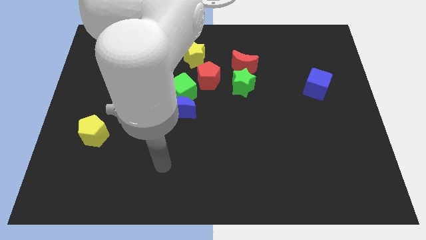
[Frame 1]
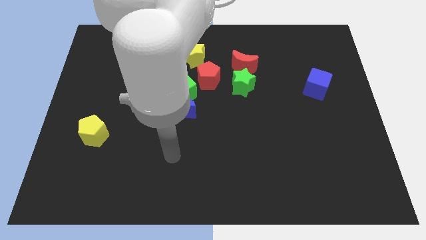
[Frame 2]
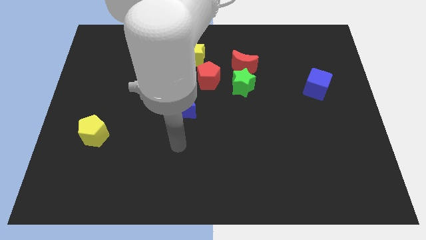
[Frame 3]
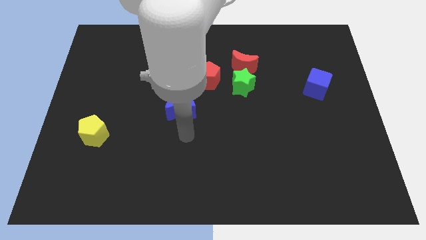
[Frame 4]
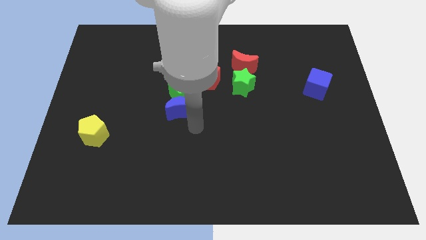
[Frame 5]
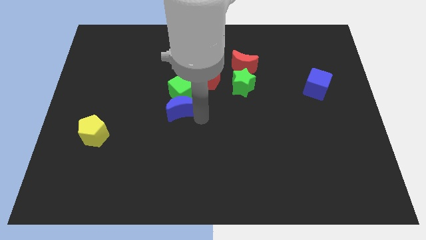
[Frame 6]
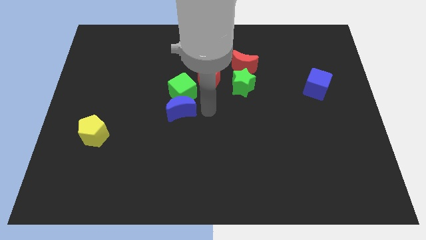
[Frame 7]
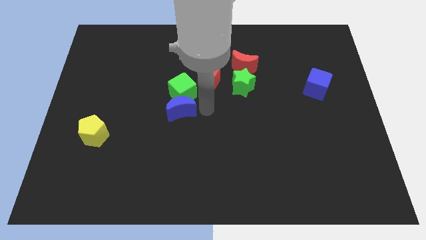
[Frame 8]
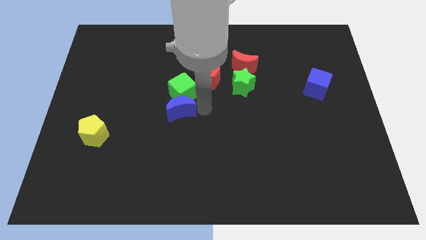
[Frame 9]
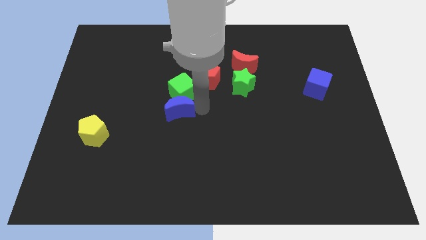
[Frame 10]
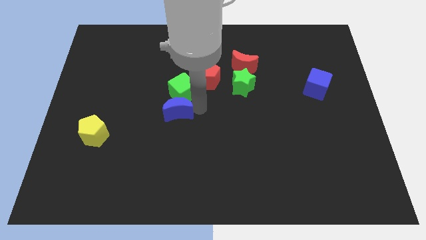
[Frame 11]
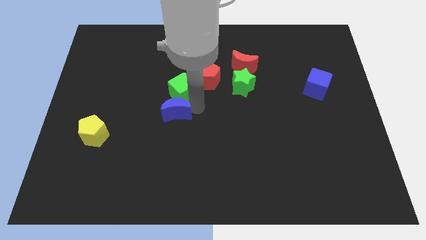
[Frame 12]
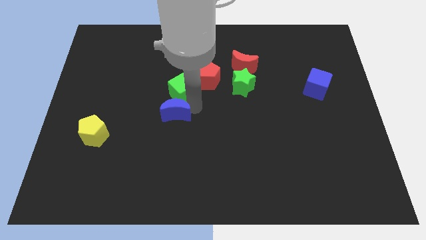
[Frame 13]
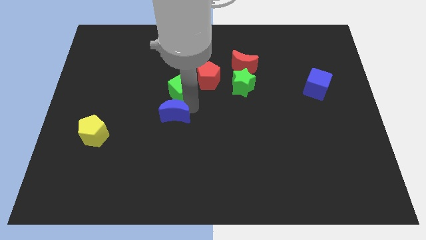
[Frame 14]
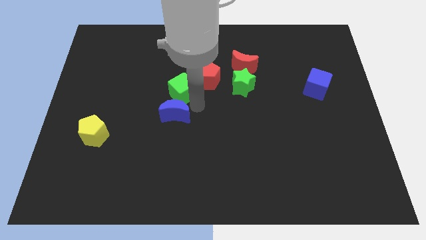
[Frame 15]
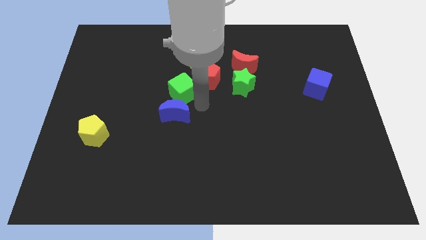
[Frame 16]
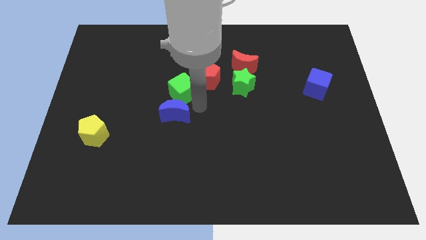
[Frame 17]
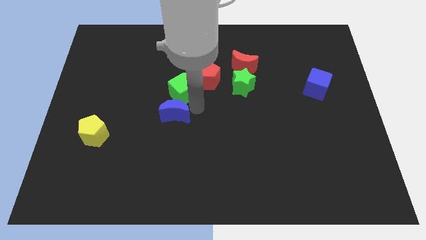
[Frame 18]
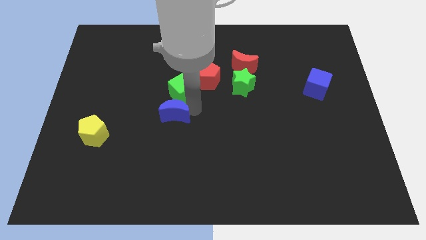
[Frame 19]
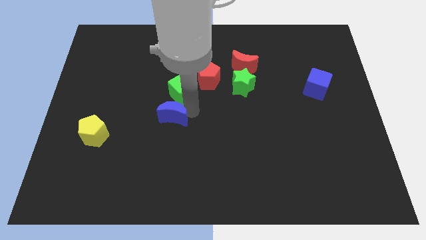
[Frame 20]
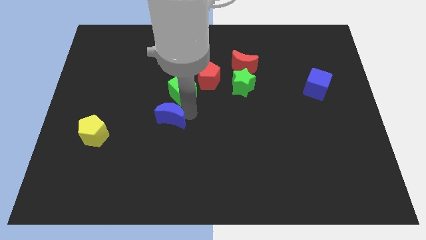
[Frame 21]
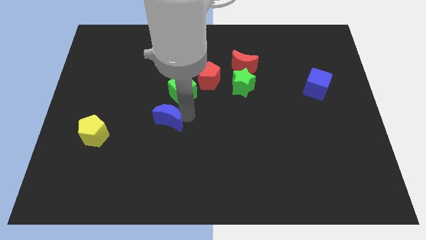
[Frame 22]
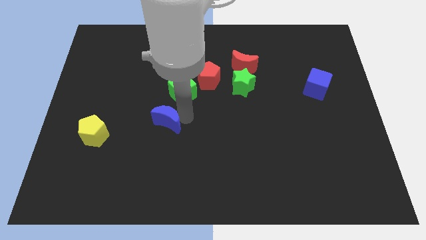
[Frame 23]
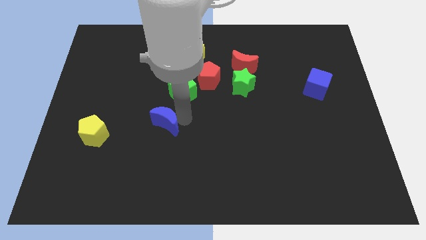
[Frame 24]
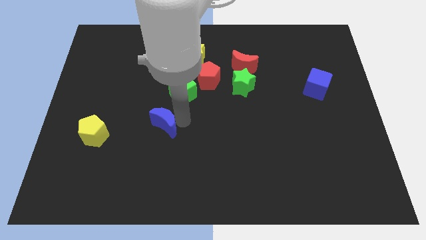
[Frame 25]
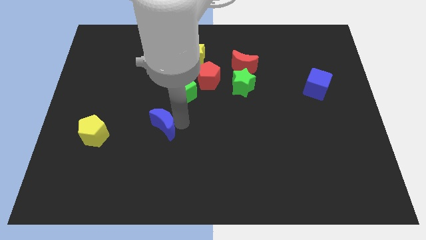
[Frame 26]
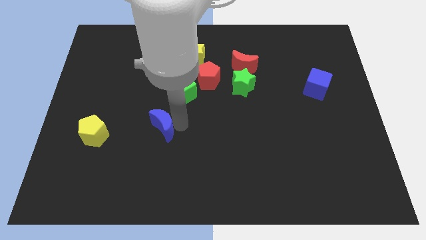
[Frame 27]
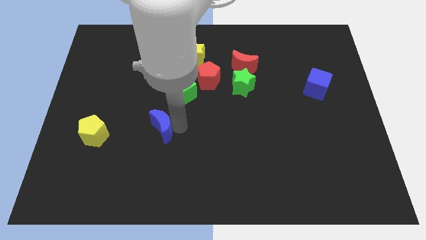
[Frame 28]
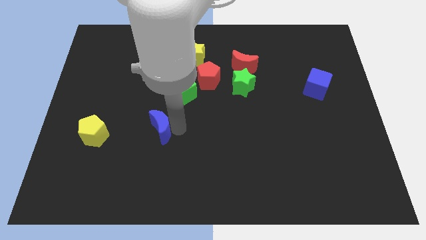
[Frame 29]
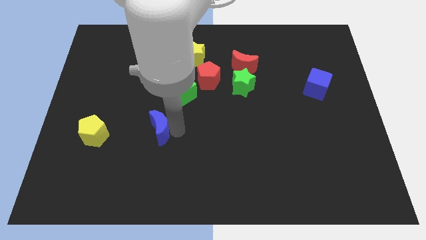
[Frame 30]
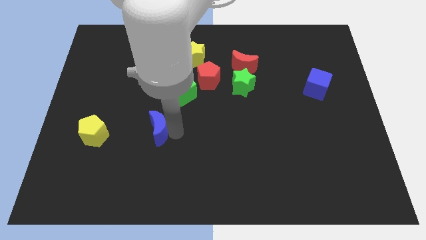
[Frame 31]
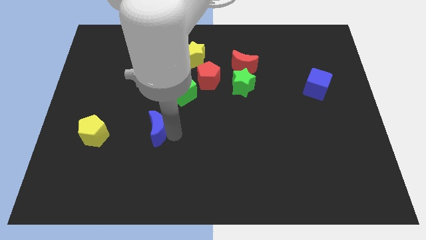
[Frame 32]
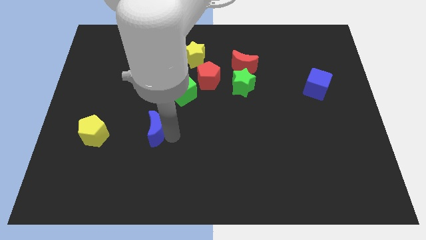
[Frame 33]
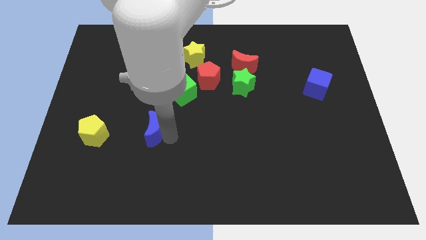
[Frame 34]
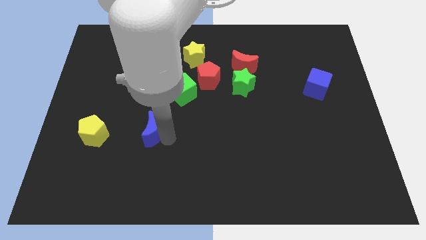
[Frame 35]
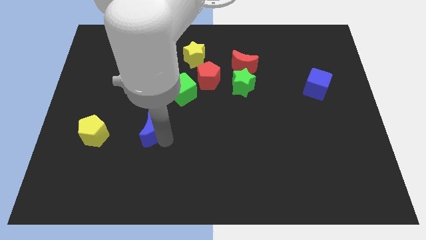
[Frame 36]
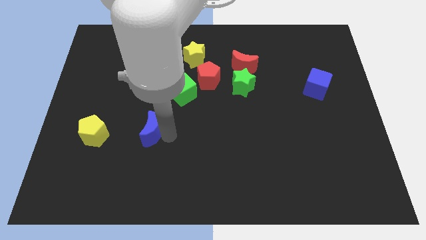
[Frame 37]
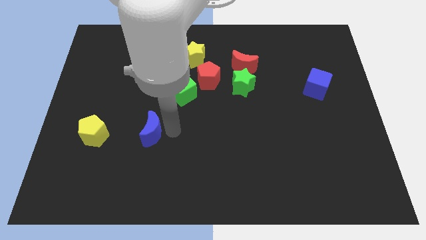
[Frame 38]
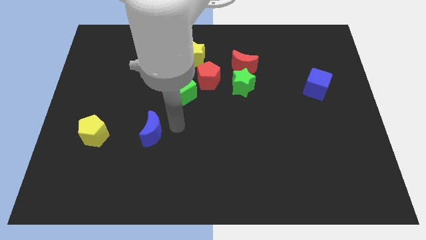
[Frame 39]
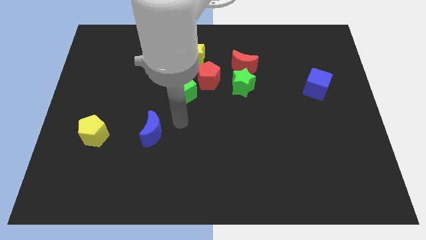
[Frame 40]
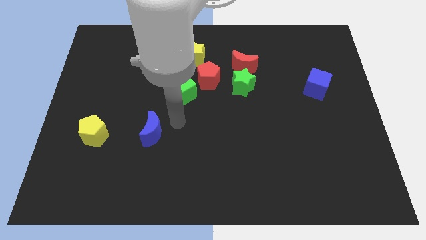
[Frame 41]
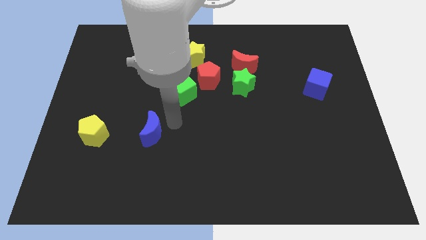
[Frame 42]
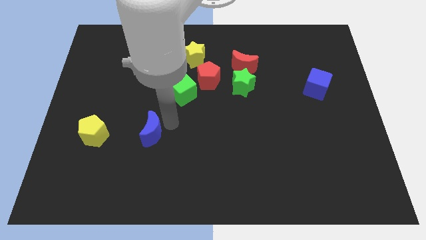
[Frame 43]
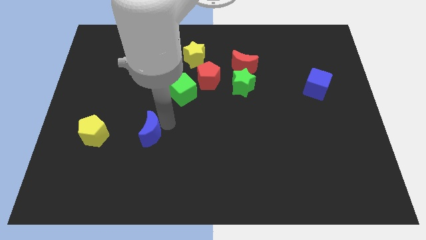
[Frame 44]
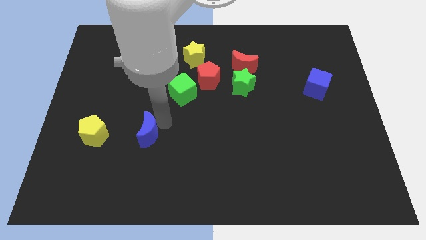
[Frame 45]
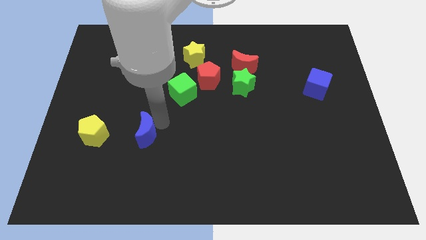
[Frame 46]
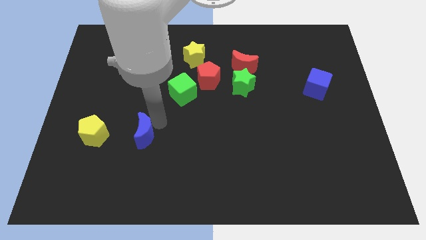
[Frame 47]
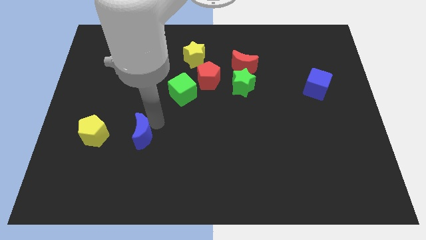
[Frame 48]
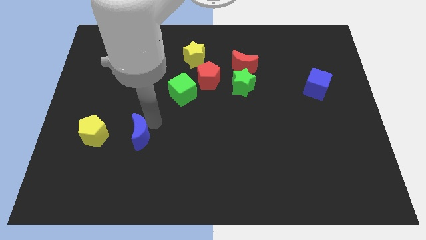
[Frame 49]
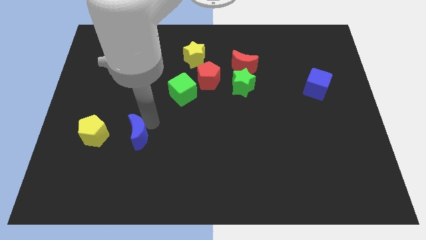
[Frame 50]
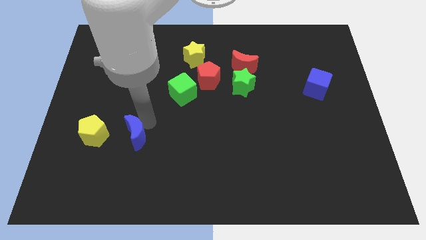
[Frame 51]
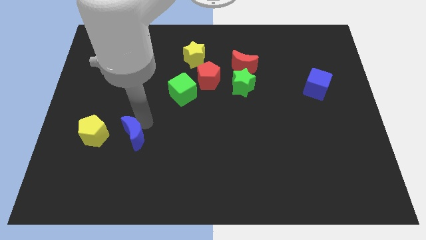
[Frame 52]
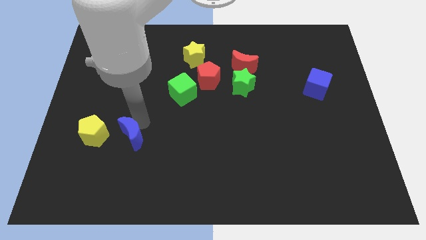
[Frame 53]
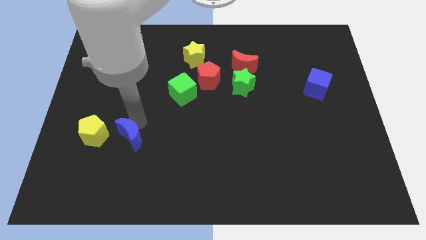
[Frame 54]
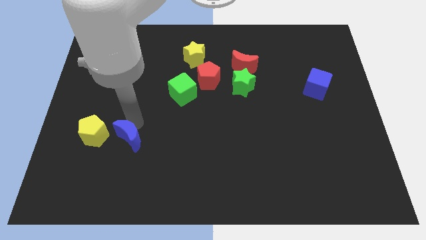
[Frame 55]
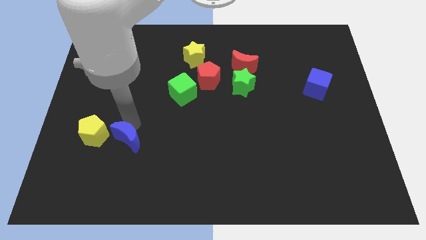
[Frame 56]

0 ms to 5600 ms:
put the blue moon diagonally down and to the right of the yellow pentagon

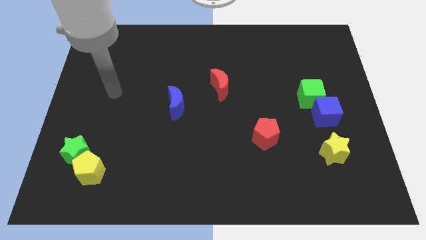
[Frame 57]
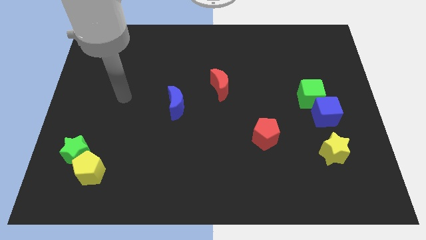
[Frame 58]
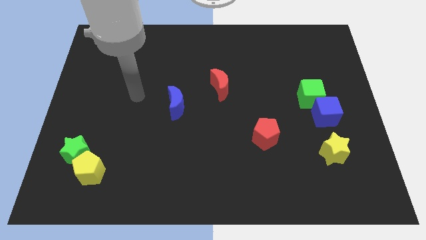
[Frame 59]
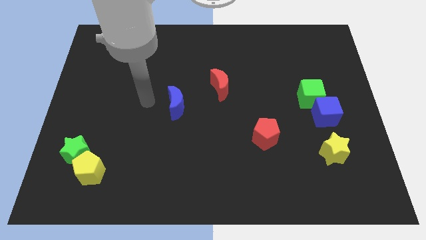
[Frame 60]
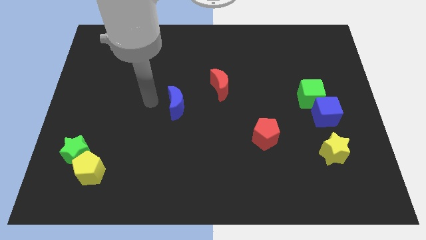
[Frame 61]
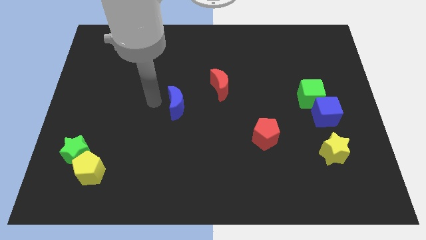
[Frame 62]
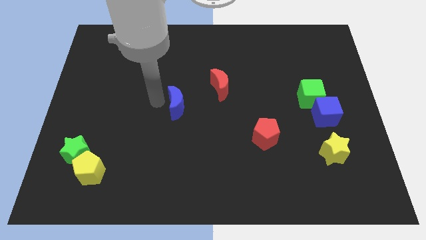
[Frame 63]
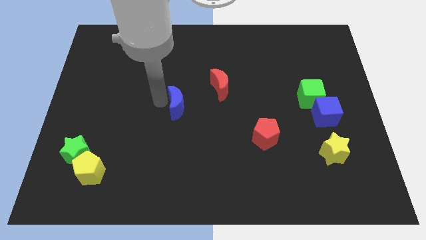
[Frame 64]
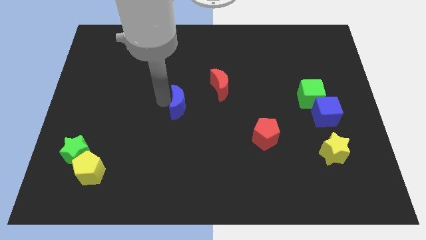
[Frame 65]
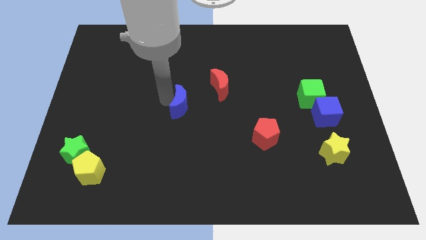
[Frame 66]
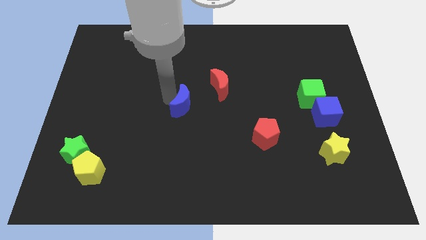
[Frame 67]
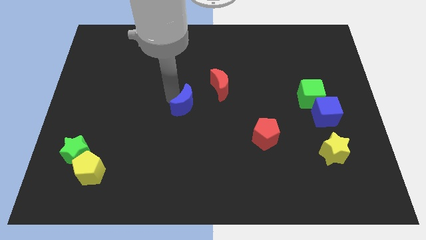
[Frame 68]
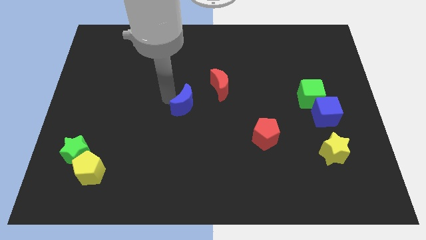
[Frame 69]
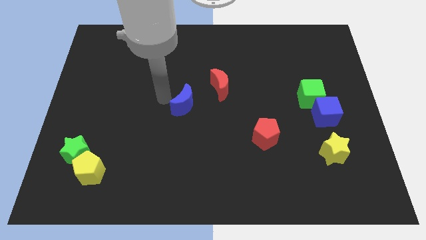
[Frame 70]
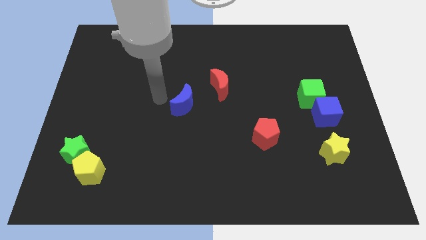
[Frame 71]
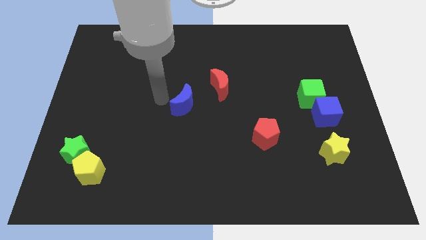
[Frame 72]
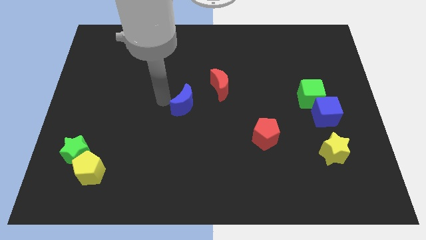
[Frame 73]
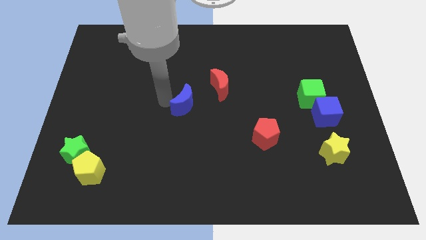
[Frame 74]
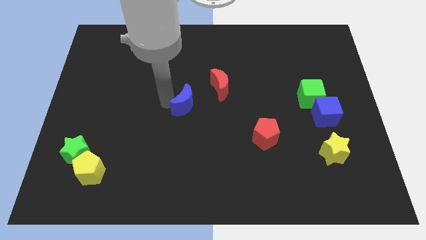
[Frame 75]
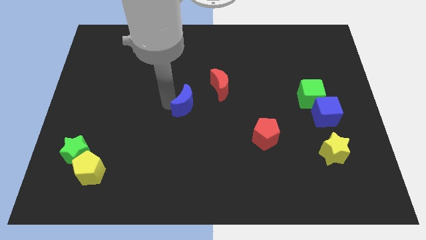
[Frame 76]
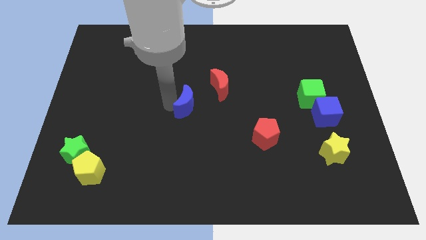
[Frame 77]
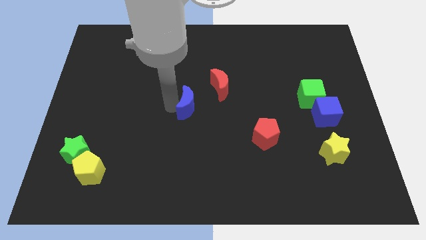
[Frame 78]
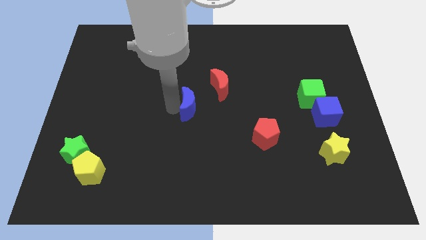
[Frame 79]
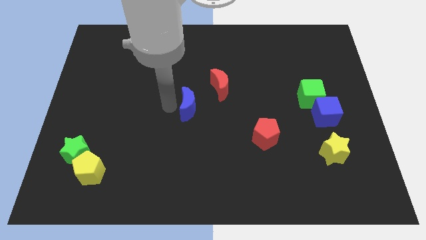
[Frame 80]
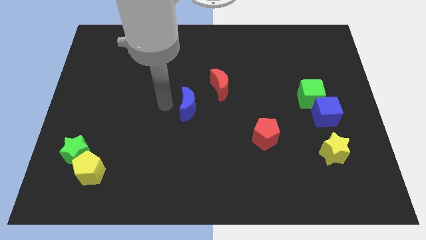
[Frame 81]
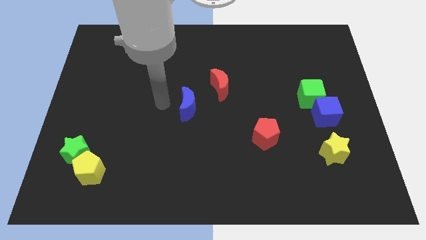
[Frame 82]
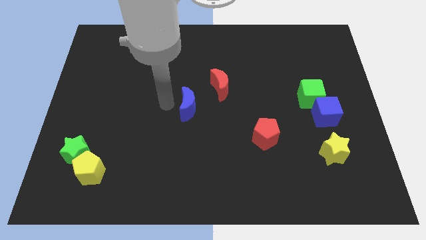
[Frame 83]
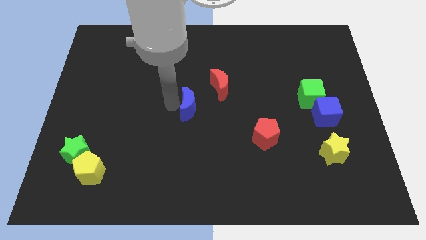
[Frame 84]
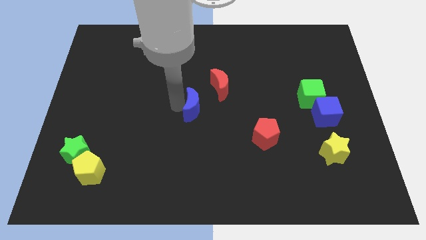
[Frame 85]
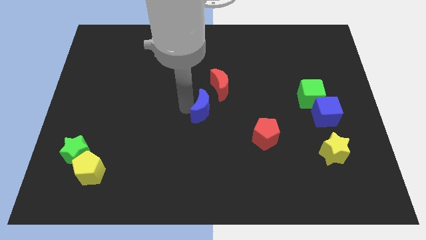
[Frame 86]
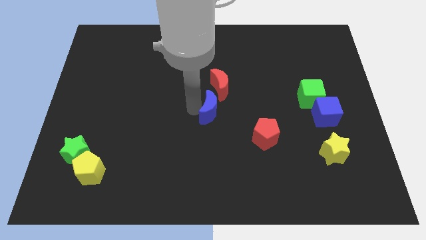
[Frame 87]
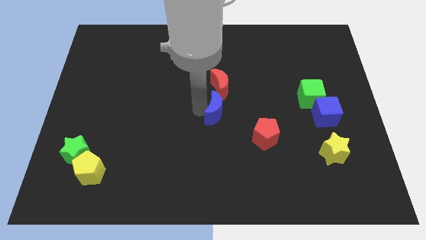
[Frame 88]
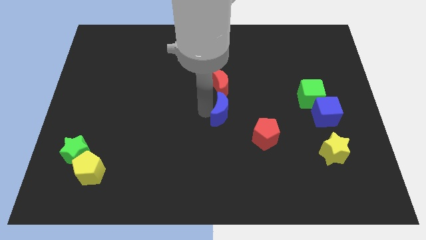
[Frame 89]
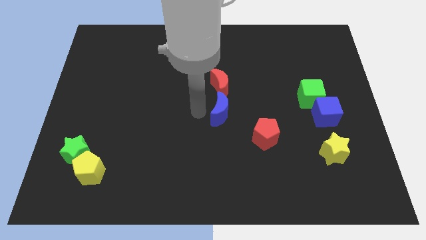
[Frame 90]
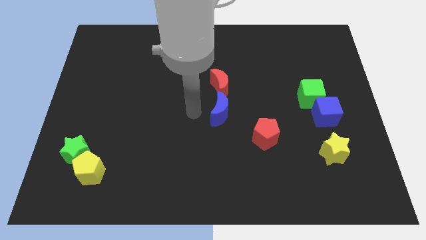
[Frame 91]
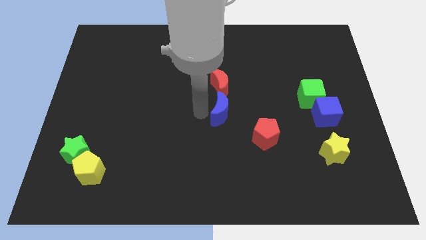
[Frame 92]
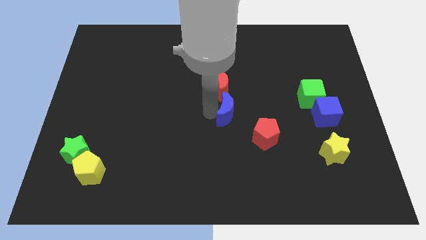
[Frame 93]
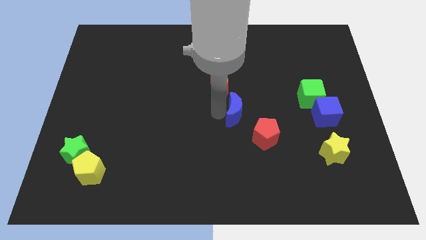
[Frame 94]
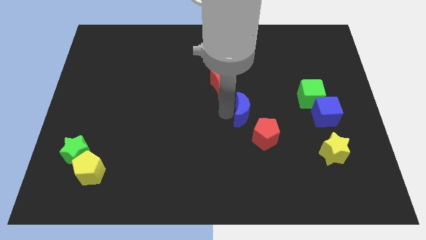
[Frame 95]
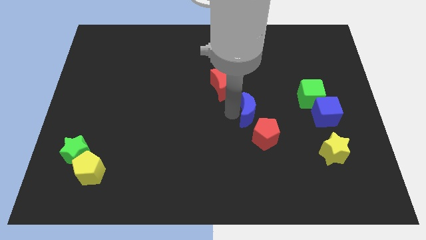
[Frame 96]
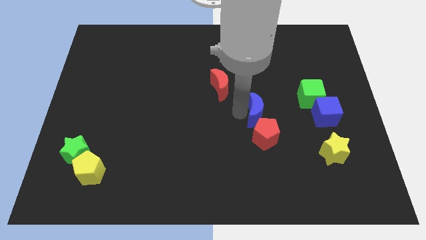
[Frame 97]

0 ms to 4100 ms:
put the blue moon left of the blue cube
